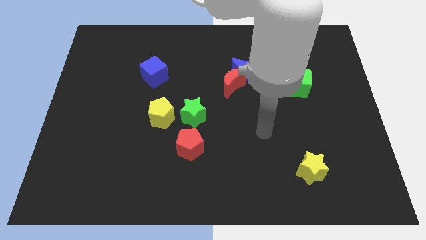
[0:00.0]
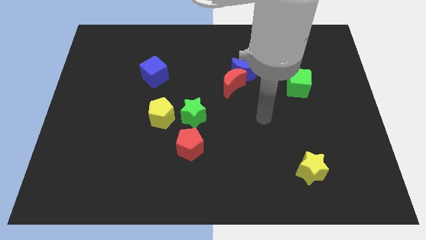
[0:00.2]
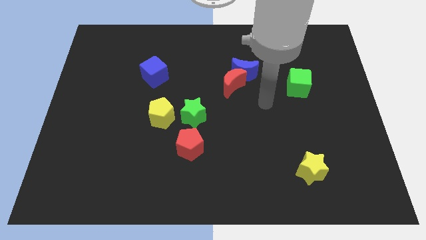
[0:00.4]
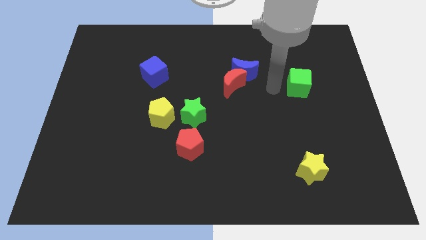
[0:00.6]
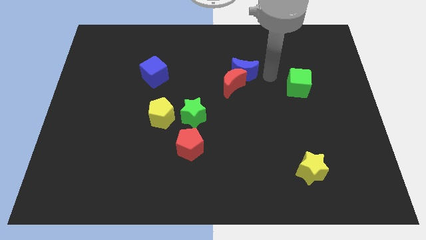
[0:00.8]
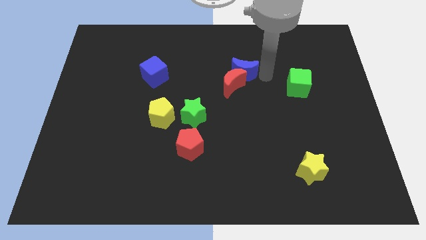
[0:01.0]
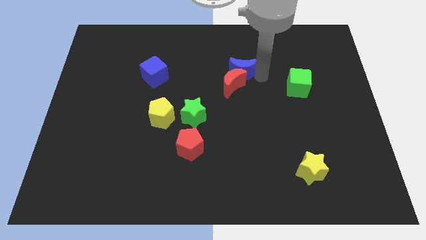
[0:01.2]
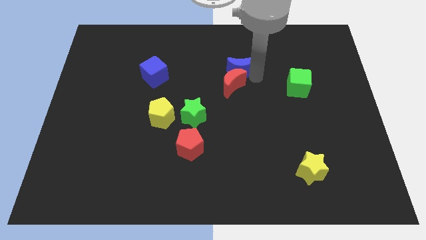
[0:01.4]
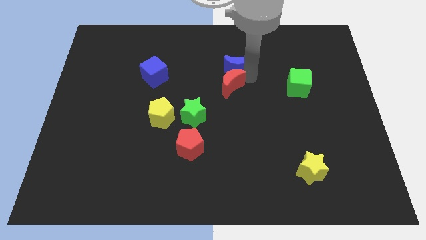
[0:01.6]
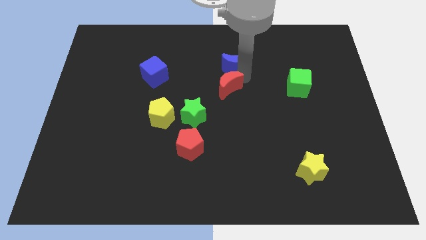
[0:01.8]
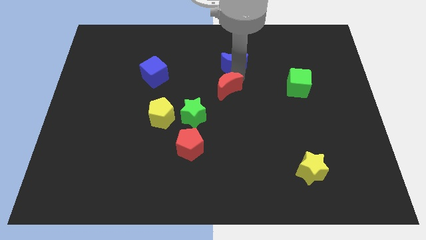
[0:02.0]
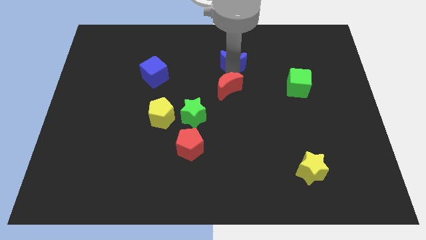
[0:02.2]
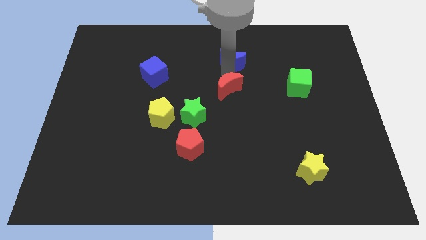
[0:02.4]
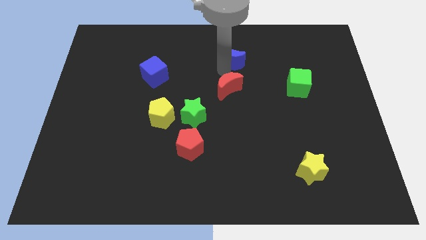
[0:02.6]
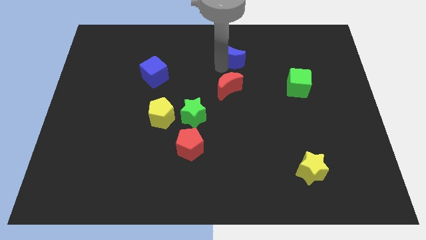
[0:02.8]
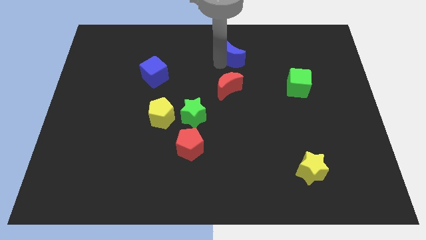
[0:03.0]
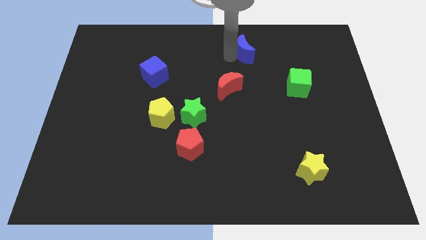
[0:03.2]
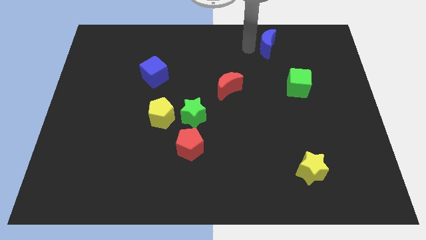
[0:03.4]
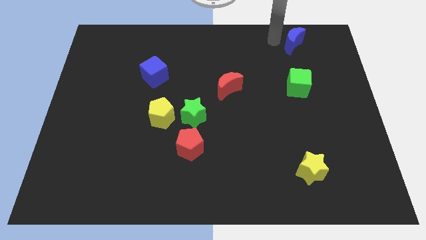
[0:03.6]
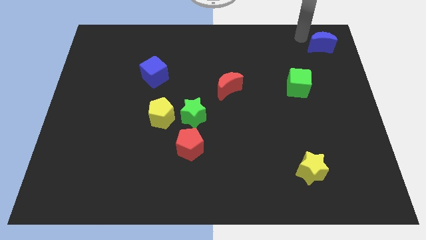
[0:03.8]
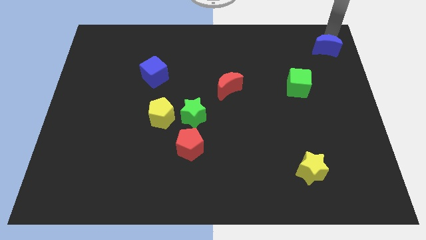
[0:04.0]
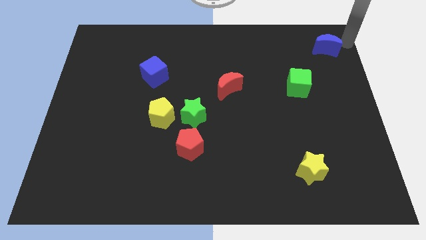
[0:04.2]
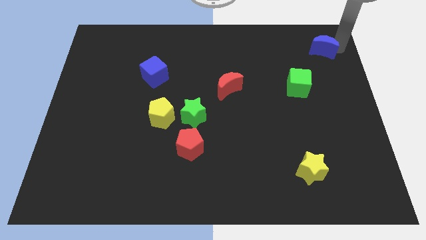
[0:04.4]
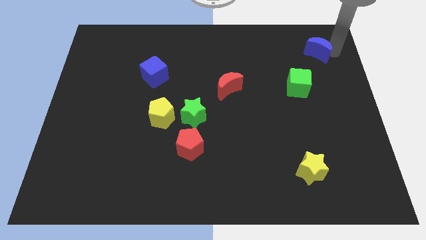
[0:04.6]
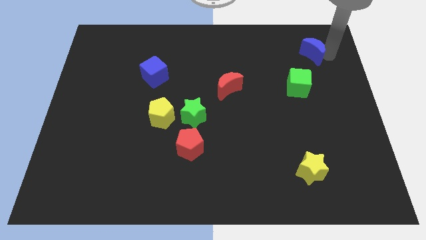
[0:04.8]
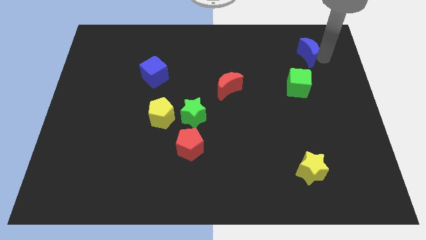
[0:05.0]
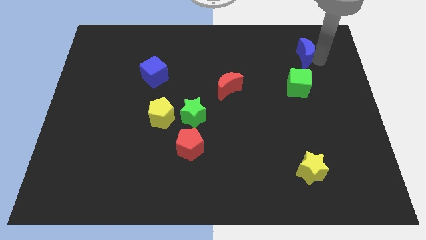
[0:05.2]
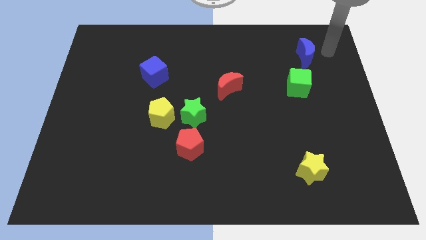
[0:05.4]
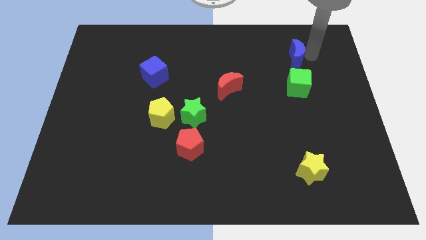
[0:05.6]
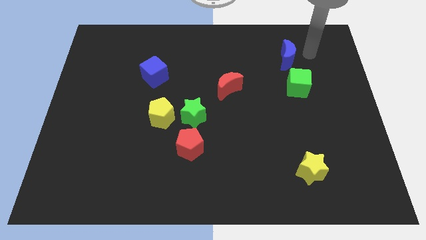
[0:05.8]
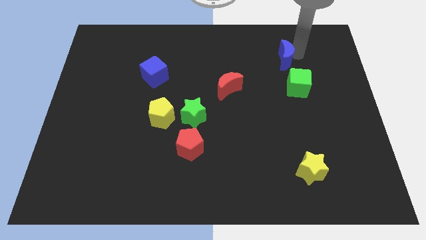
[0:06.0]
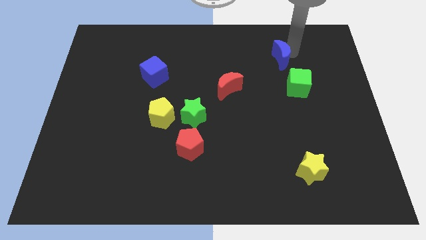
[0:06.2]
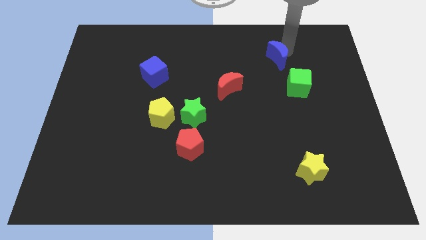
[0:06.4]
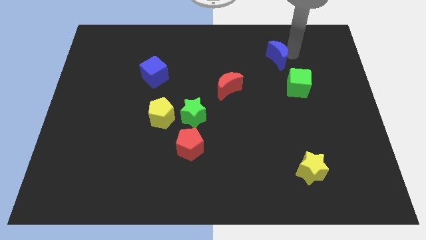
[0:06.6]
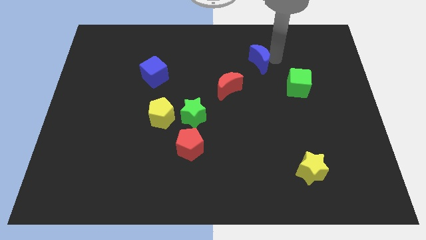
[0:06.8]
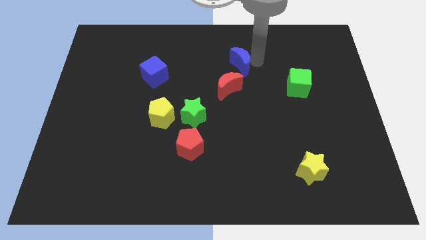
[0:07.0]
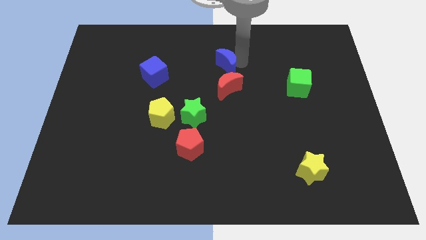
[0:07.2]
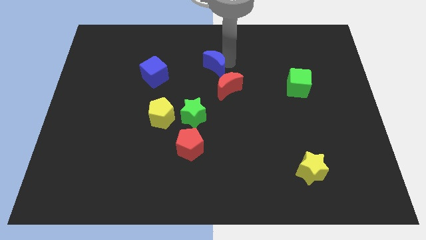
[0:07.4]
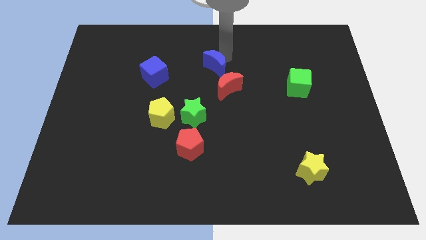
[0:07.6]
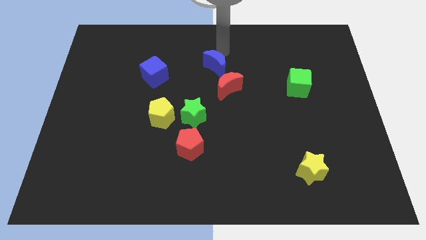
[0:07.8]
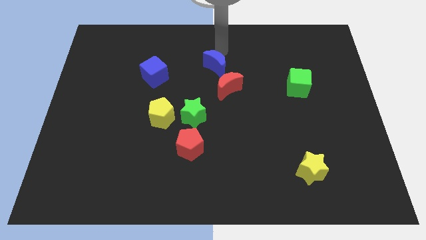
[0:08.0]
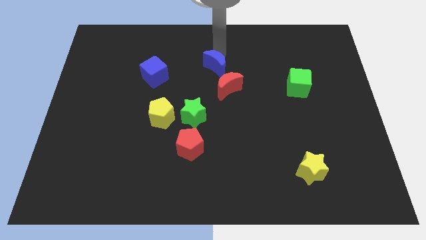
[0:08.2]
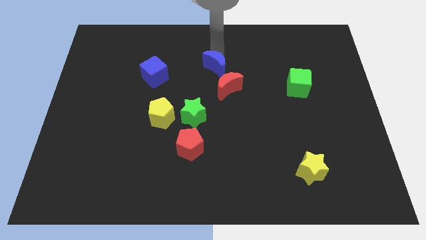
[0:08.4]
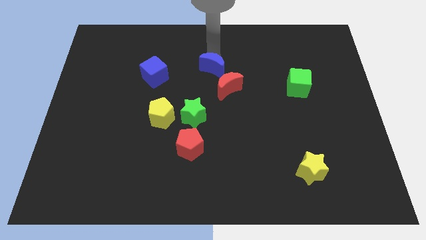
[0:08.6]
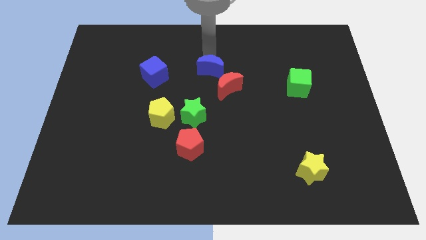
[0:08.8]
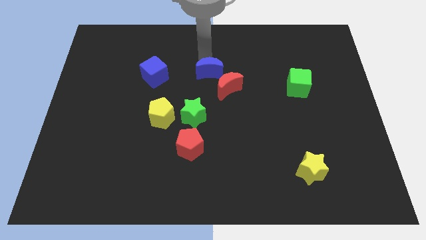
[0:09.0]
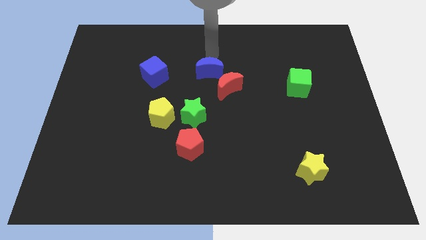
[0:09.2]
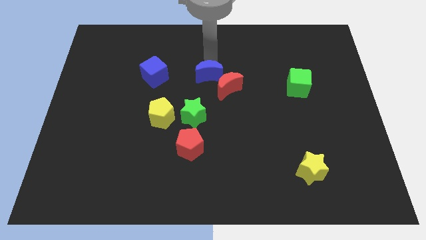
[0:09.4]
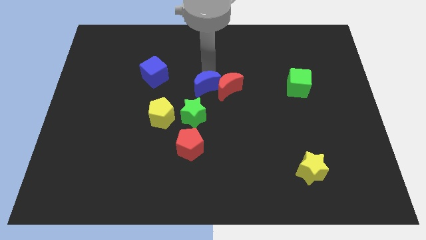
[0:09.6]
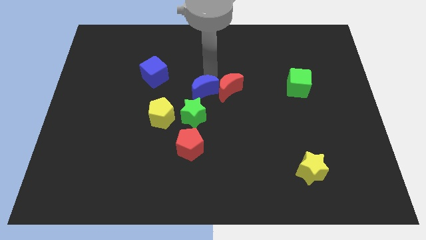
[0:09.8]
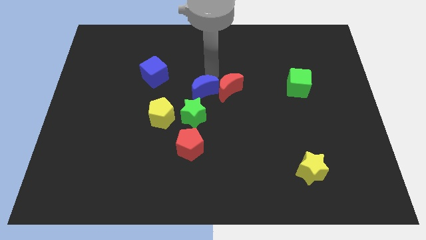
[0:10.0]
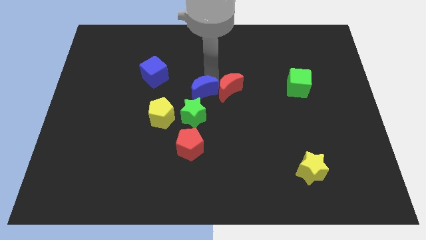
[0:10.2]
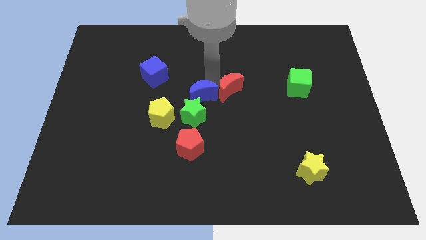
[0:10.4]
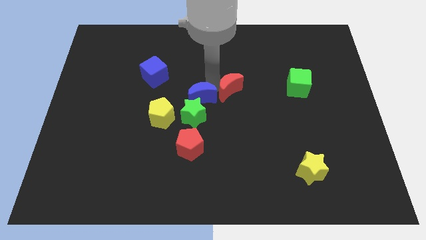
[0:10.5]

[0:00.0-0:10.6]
push the blue moon to the green star

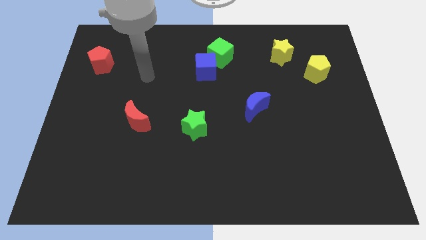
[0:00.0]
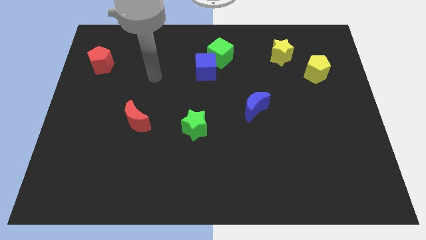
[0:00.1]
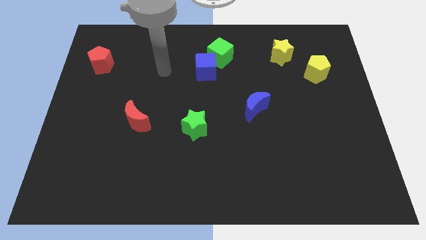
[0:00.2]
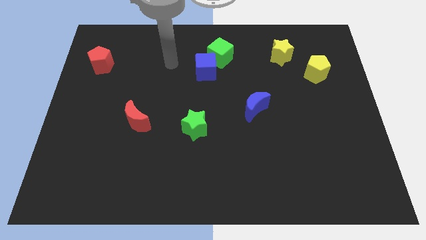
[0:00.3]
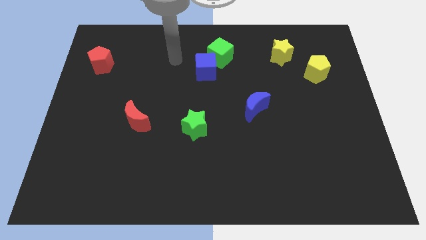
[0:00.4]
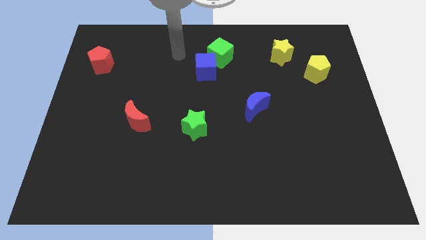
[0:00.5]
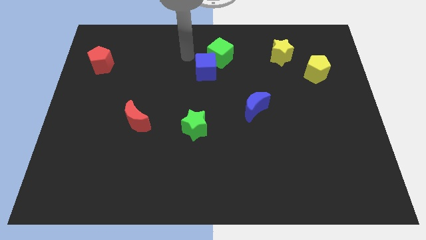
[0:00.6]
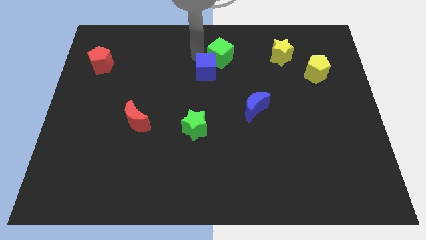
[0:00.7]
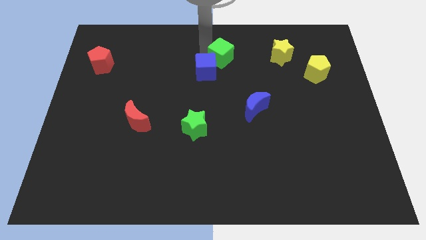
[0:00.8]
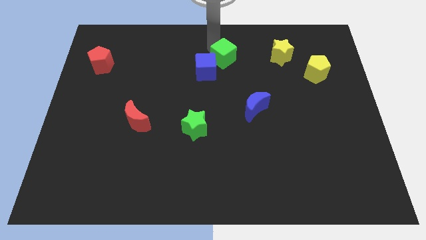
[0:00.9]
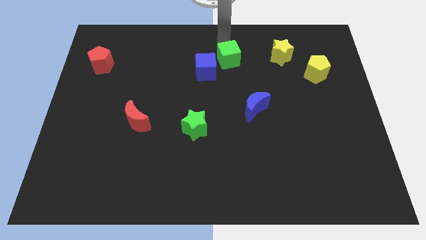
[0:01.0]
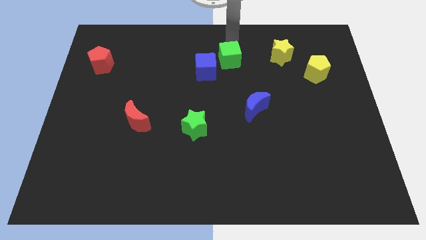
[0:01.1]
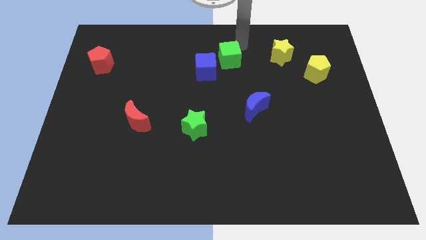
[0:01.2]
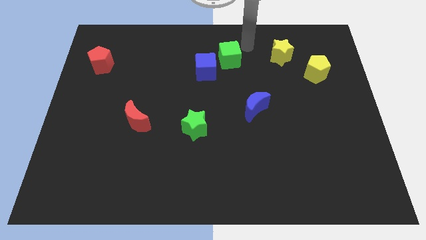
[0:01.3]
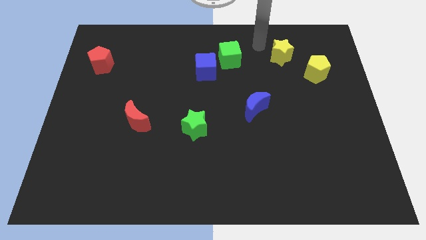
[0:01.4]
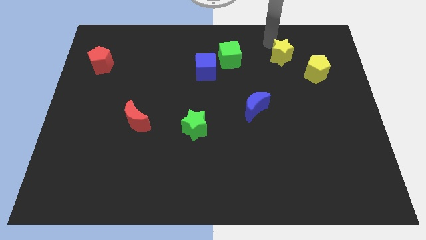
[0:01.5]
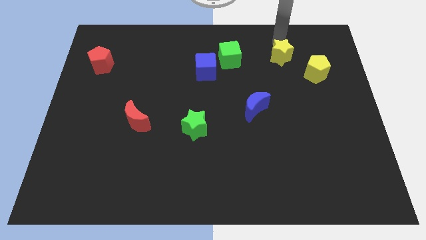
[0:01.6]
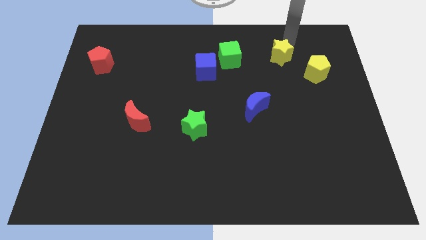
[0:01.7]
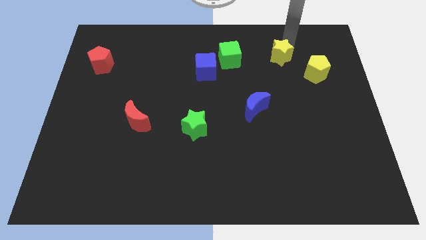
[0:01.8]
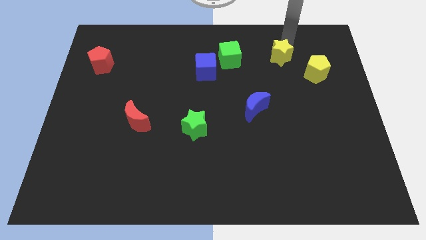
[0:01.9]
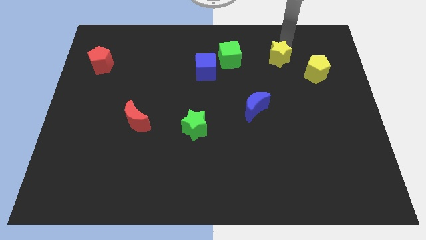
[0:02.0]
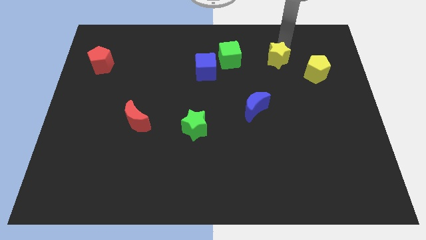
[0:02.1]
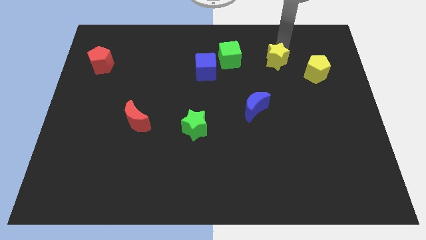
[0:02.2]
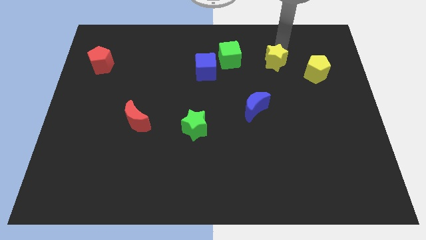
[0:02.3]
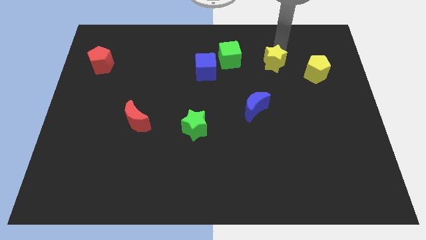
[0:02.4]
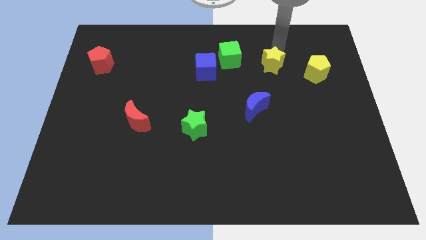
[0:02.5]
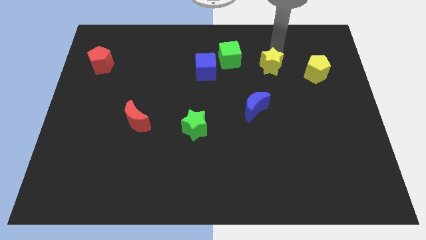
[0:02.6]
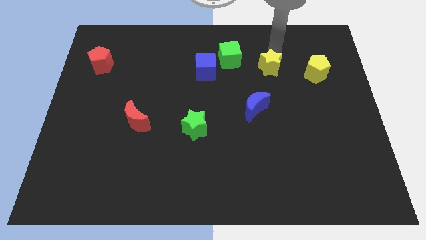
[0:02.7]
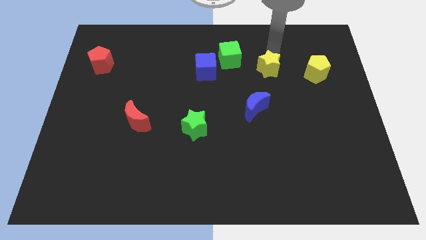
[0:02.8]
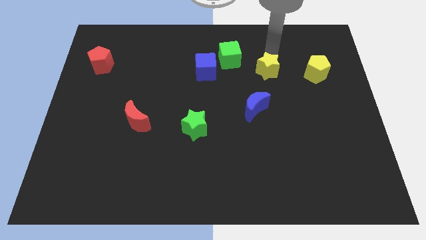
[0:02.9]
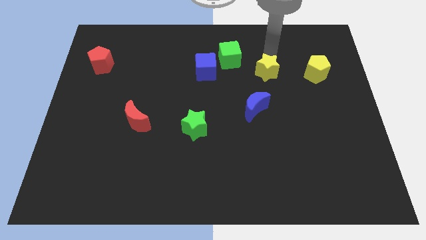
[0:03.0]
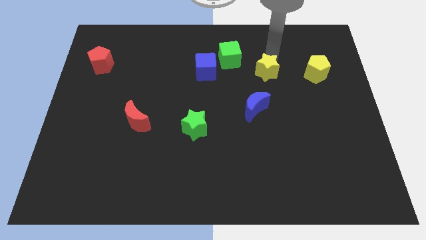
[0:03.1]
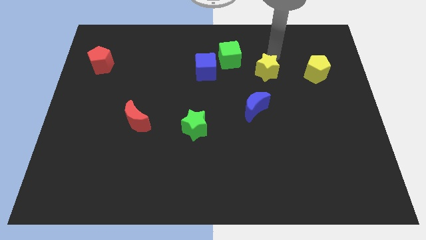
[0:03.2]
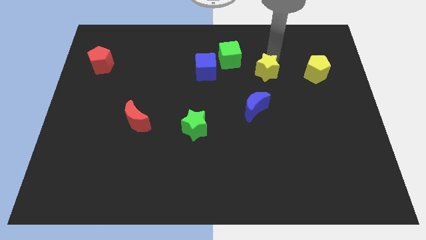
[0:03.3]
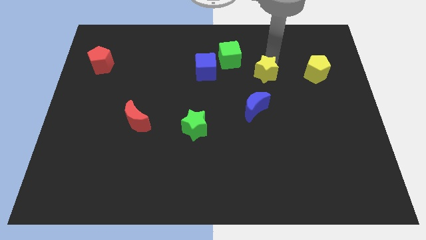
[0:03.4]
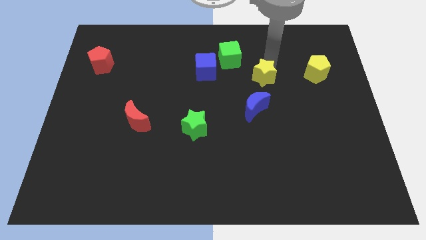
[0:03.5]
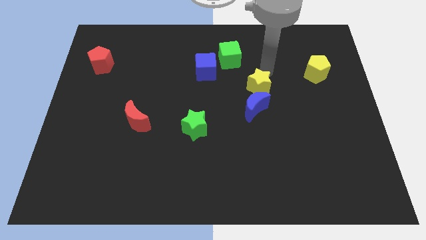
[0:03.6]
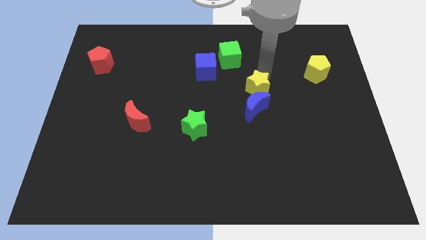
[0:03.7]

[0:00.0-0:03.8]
push the yellow star close to the blue moon
